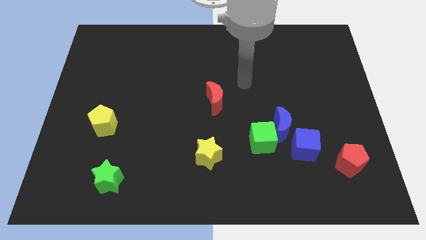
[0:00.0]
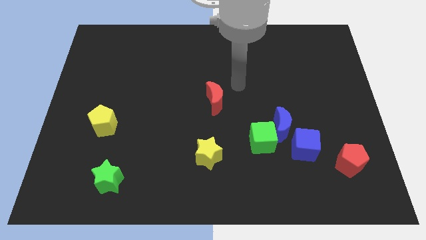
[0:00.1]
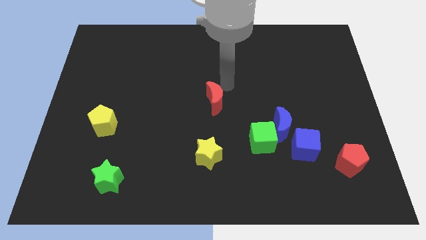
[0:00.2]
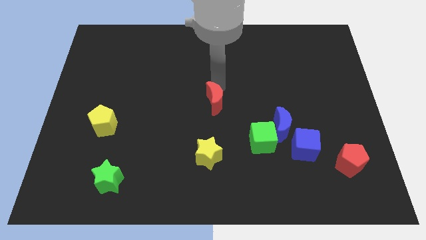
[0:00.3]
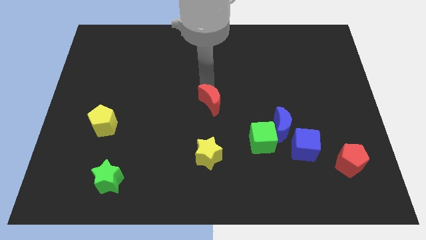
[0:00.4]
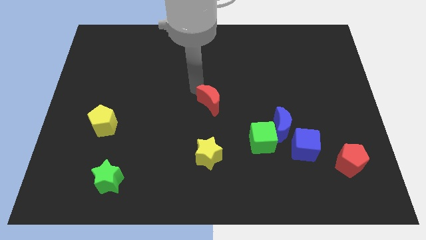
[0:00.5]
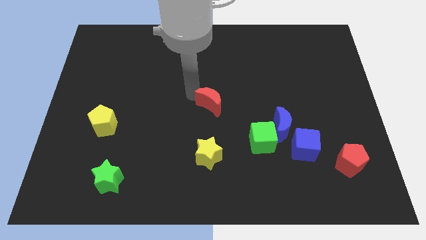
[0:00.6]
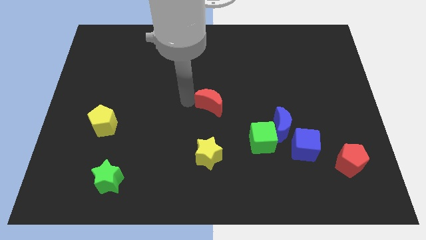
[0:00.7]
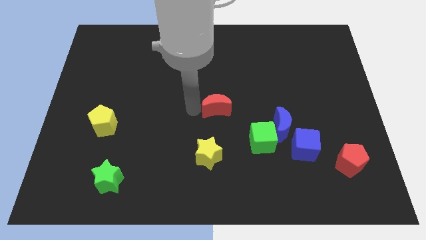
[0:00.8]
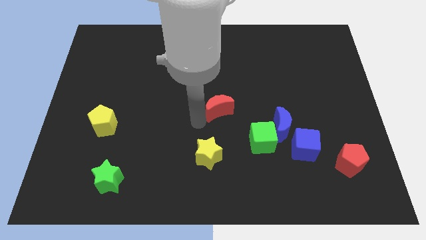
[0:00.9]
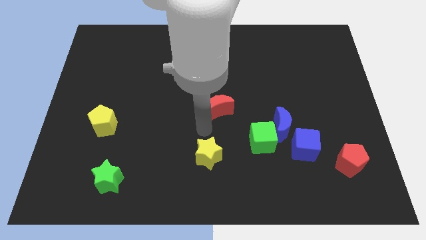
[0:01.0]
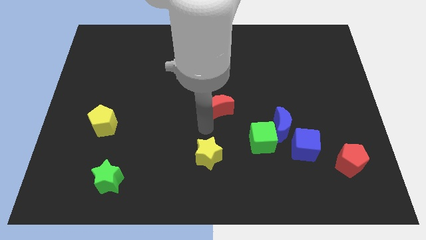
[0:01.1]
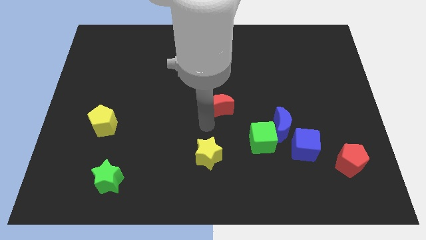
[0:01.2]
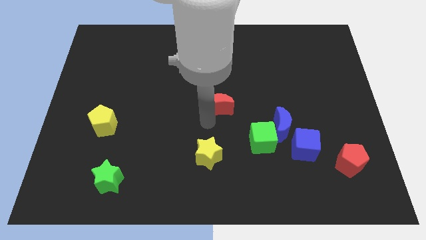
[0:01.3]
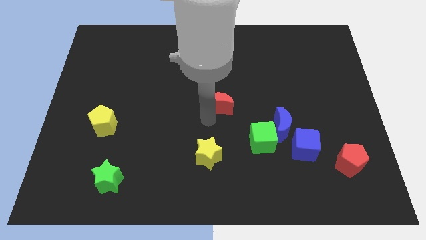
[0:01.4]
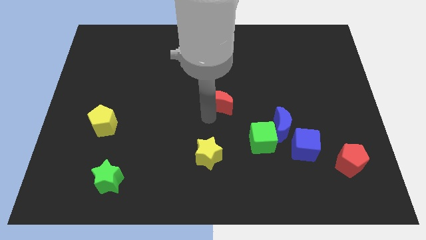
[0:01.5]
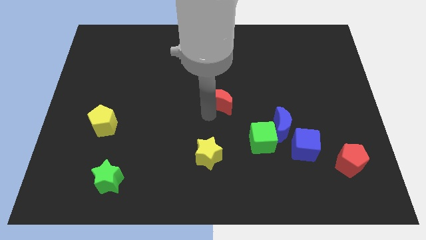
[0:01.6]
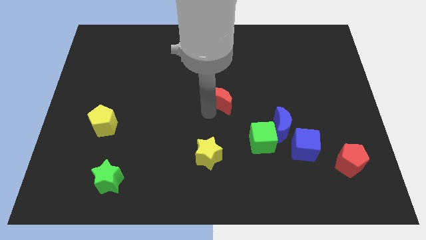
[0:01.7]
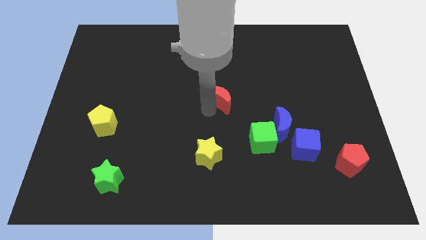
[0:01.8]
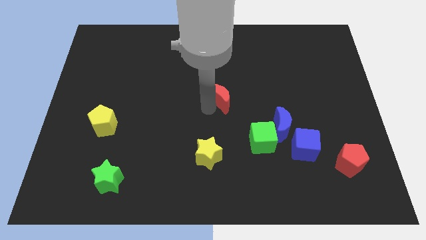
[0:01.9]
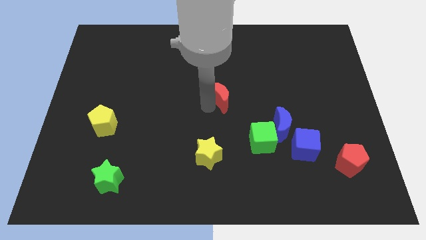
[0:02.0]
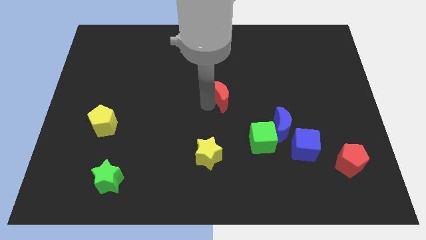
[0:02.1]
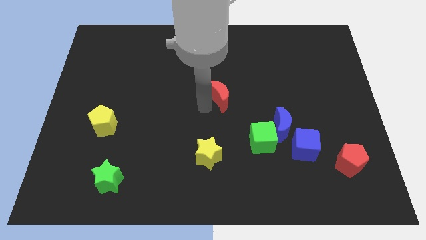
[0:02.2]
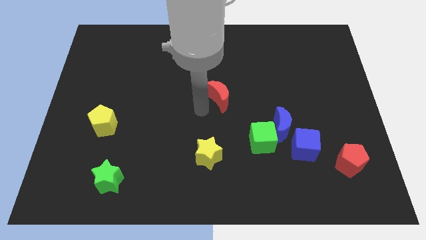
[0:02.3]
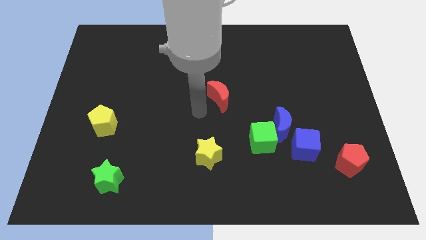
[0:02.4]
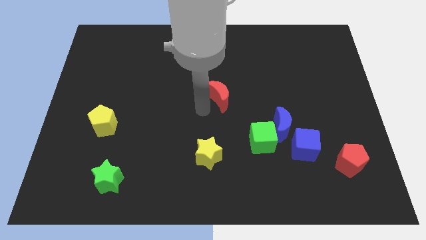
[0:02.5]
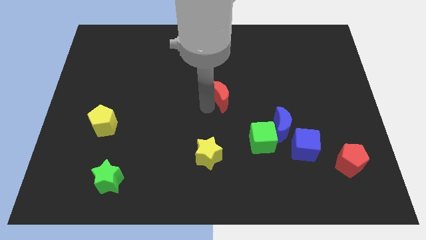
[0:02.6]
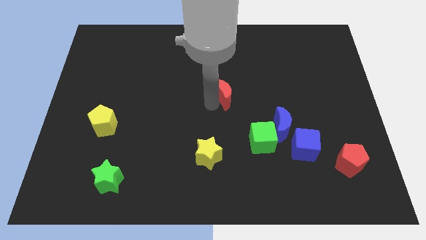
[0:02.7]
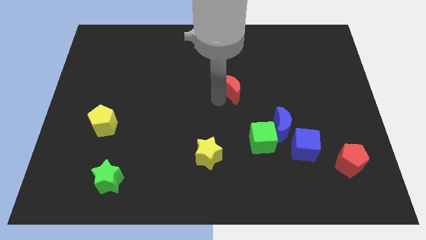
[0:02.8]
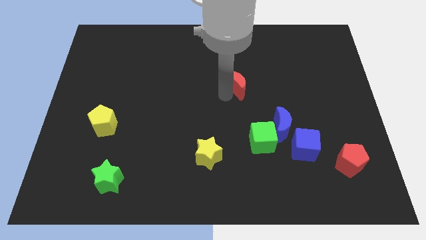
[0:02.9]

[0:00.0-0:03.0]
push the red moon a little diagonally up and right

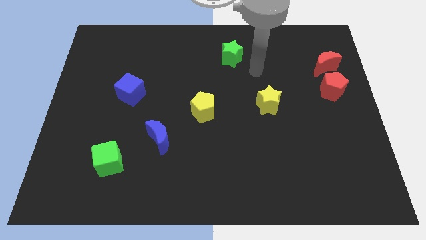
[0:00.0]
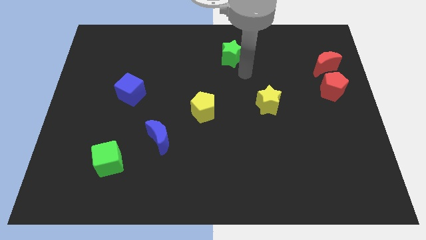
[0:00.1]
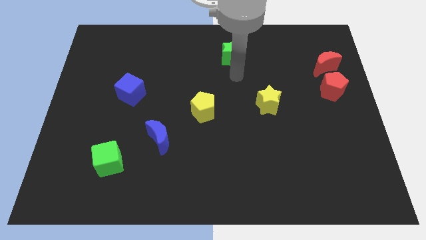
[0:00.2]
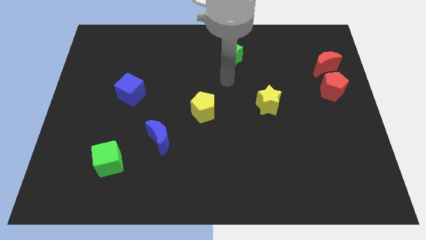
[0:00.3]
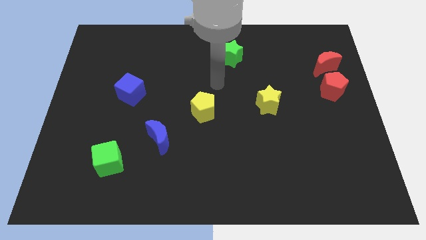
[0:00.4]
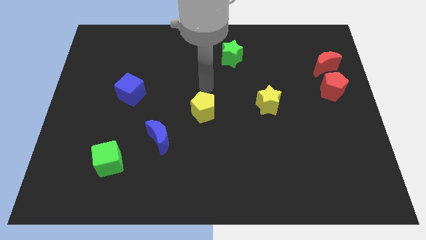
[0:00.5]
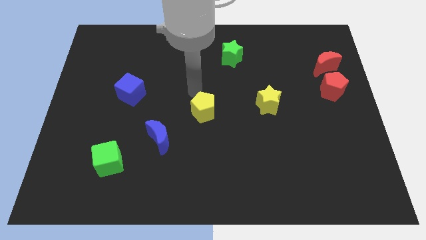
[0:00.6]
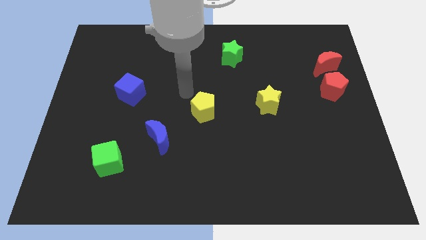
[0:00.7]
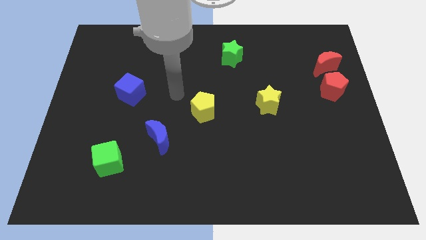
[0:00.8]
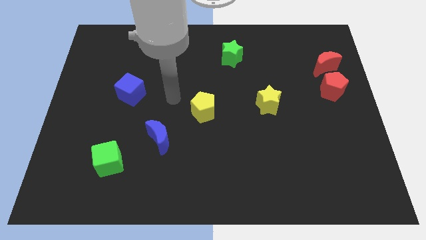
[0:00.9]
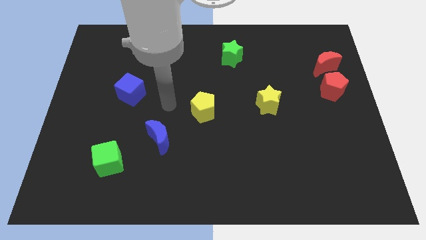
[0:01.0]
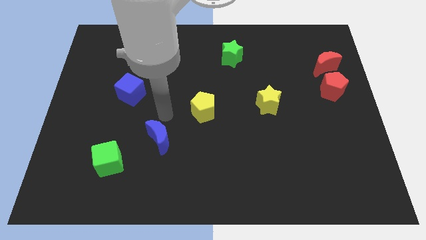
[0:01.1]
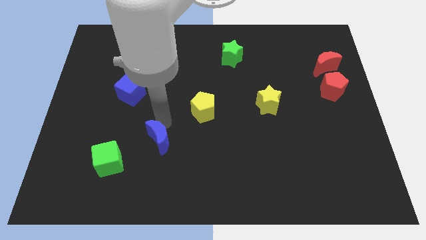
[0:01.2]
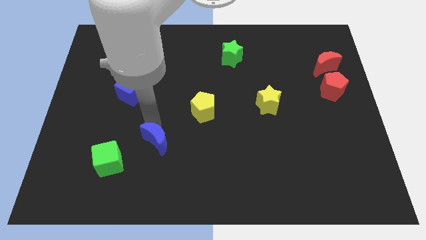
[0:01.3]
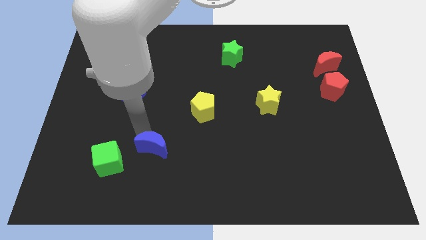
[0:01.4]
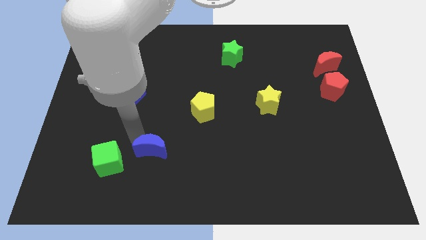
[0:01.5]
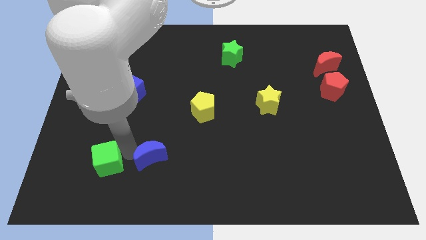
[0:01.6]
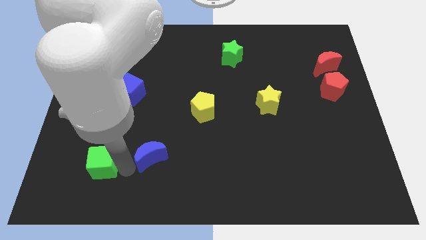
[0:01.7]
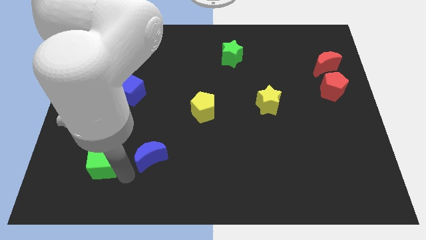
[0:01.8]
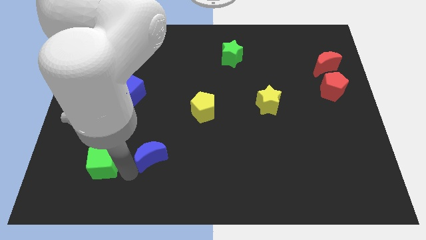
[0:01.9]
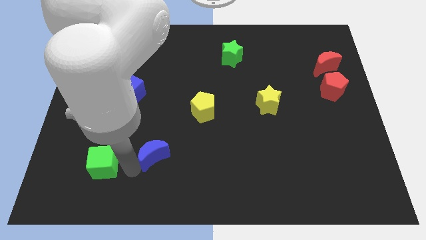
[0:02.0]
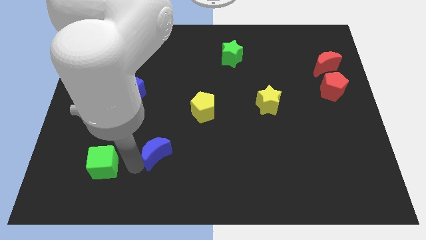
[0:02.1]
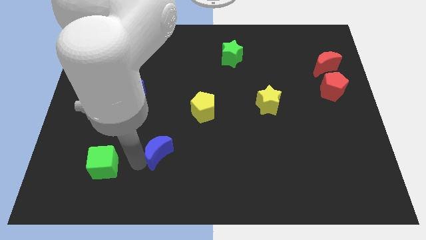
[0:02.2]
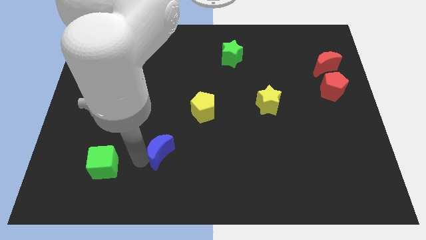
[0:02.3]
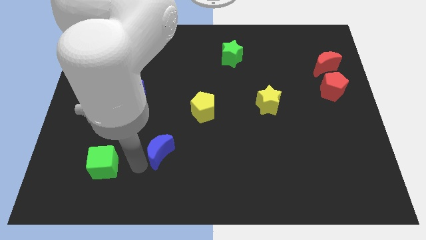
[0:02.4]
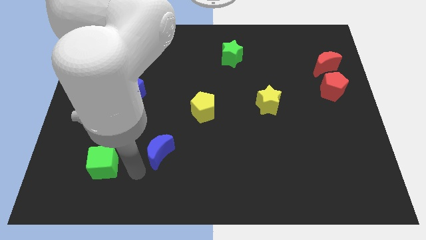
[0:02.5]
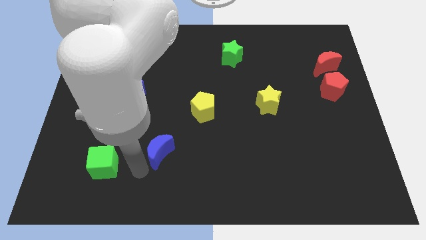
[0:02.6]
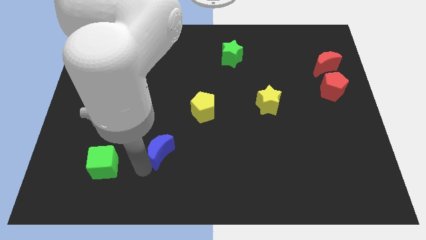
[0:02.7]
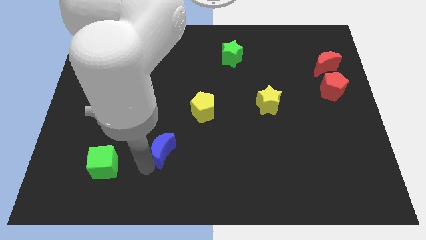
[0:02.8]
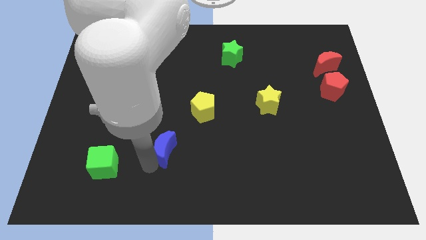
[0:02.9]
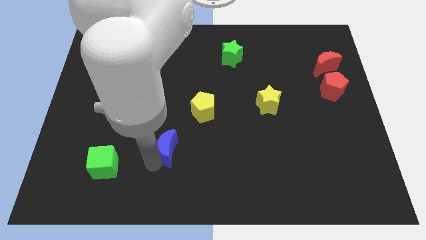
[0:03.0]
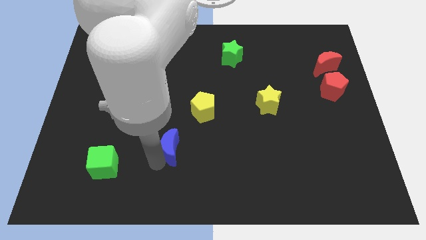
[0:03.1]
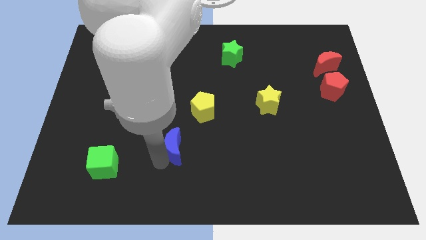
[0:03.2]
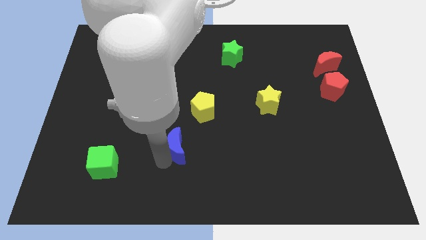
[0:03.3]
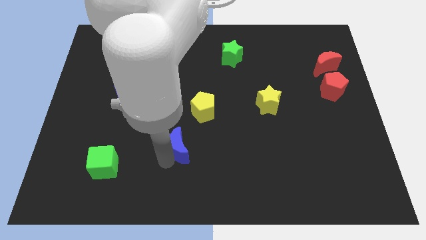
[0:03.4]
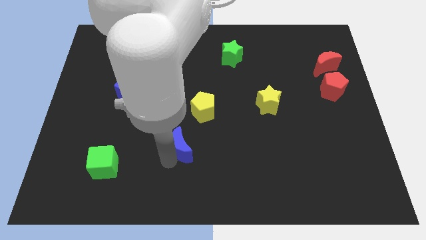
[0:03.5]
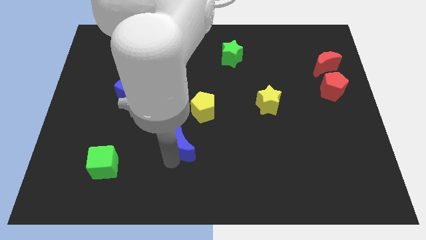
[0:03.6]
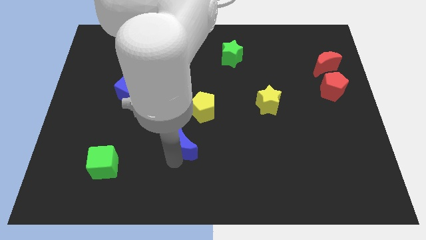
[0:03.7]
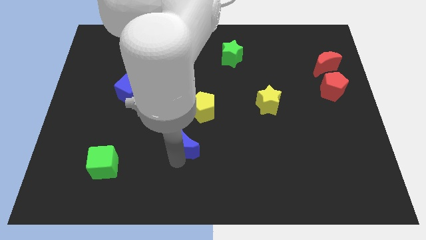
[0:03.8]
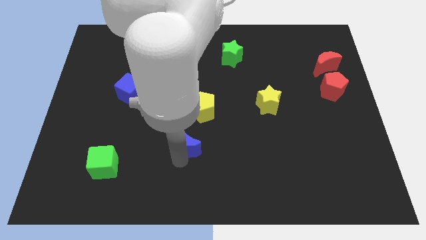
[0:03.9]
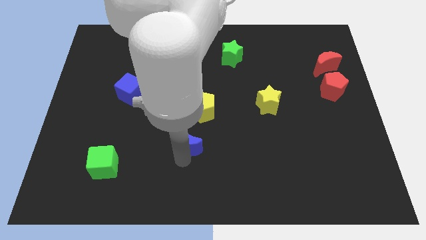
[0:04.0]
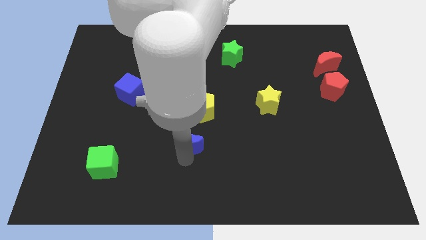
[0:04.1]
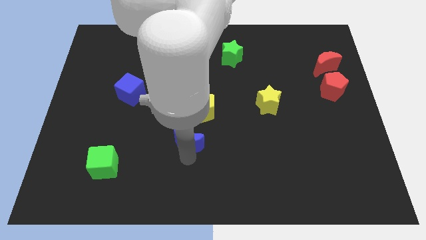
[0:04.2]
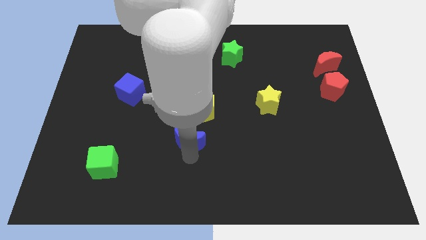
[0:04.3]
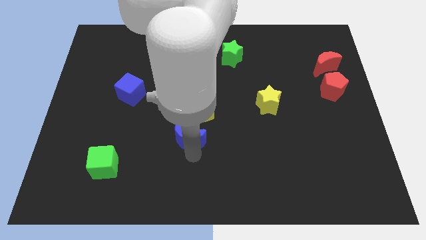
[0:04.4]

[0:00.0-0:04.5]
slide the blue moon right a bit

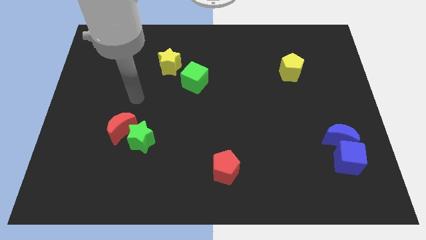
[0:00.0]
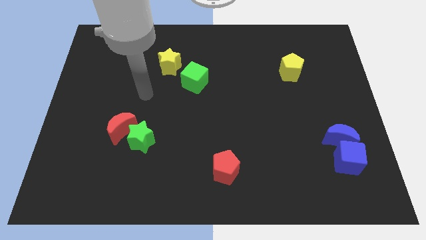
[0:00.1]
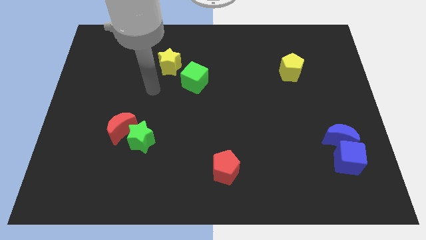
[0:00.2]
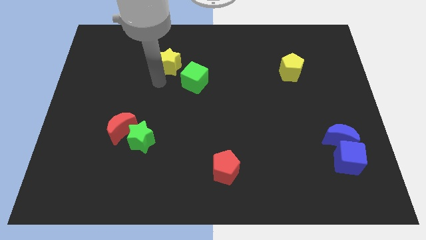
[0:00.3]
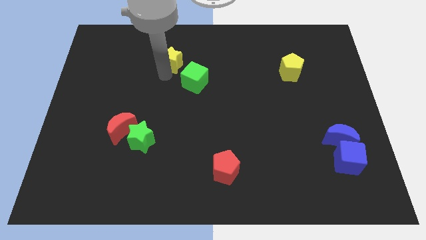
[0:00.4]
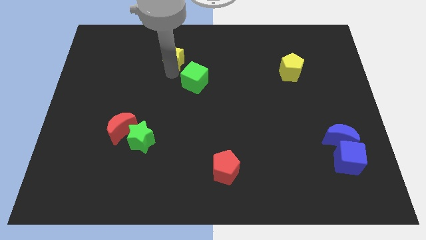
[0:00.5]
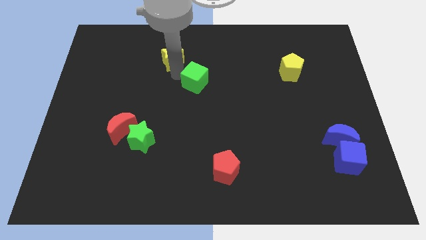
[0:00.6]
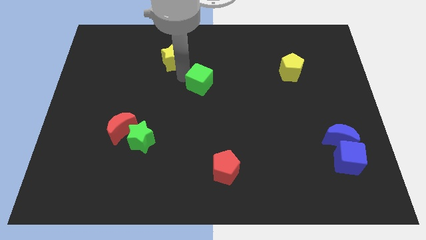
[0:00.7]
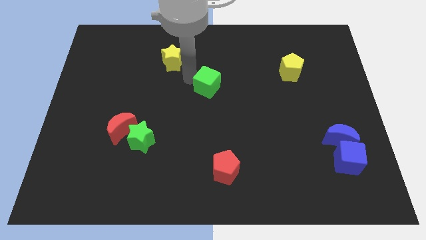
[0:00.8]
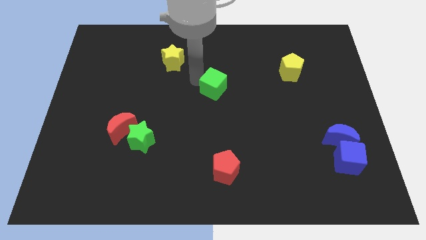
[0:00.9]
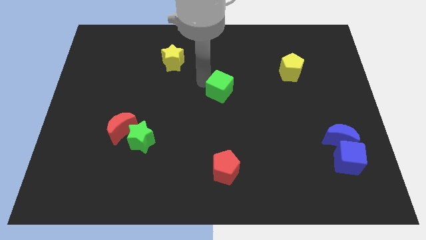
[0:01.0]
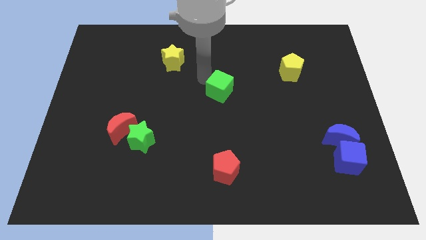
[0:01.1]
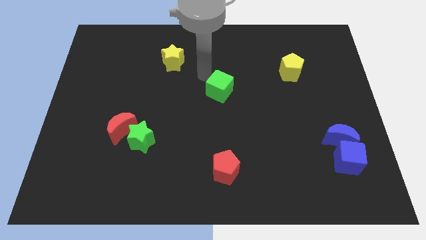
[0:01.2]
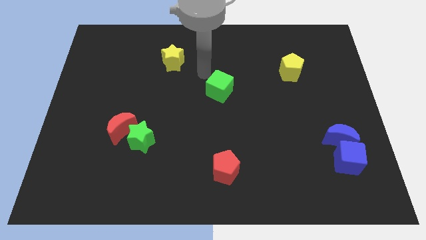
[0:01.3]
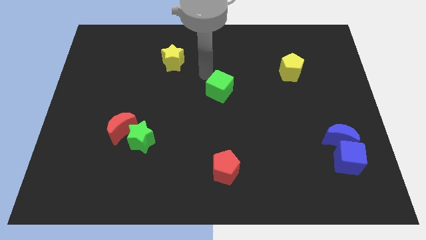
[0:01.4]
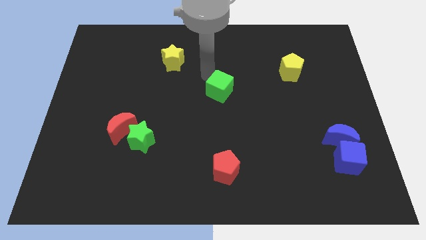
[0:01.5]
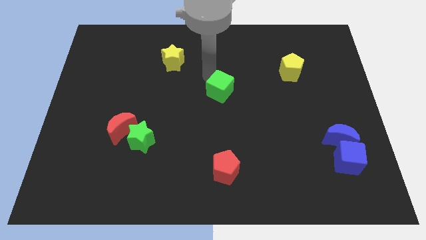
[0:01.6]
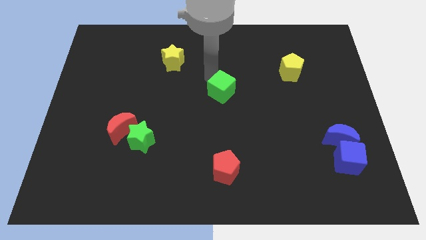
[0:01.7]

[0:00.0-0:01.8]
push the green cube diagonally down and to the right a bit
